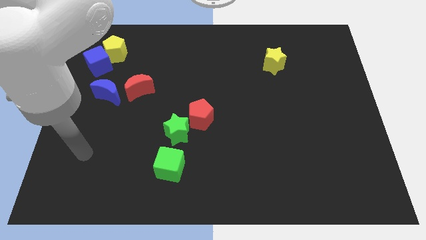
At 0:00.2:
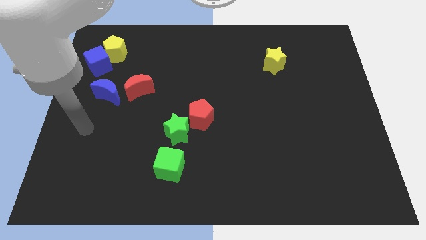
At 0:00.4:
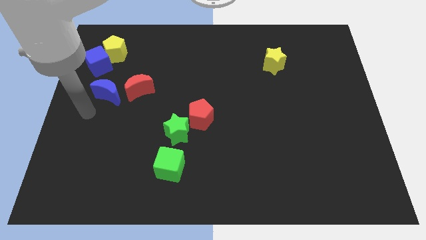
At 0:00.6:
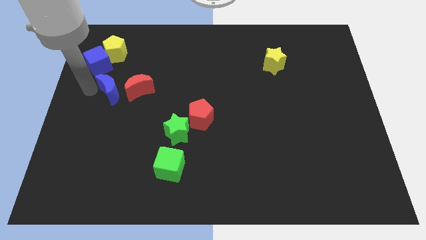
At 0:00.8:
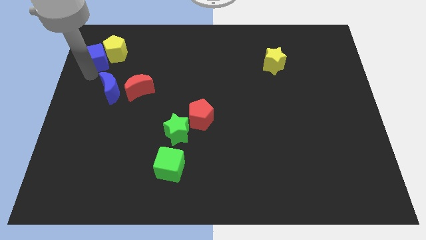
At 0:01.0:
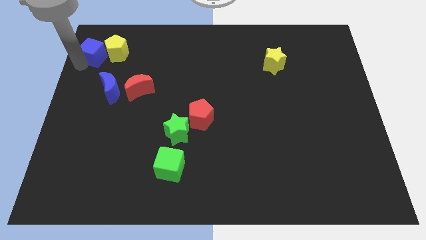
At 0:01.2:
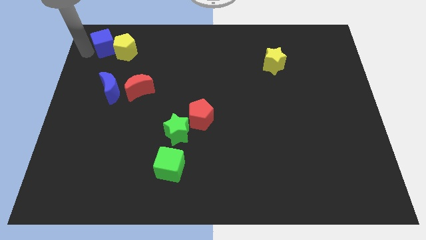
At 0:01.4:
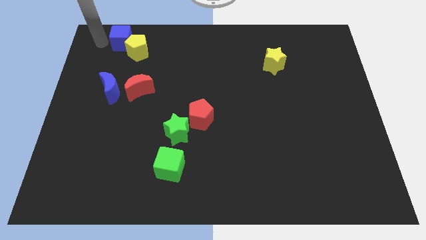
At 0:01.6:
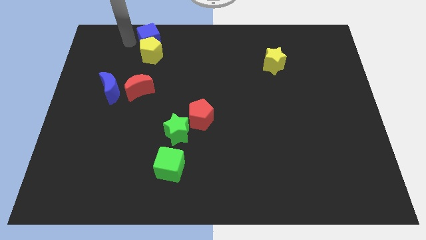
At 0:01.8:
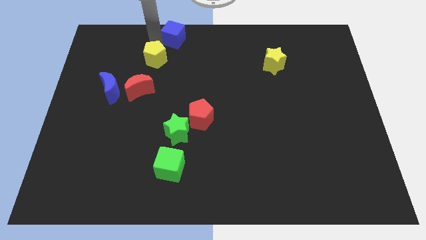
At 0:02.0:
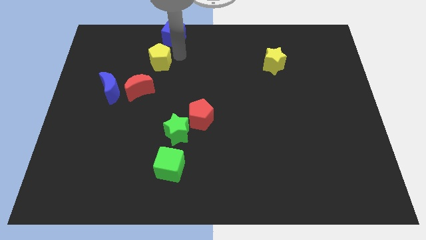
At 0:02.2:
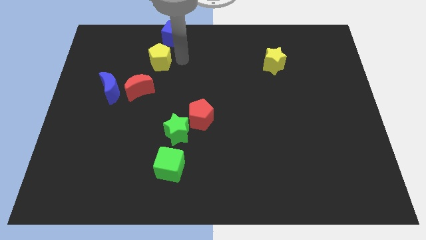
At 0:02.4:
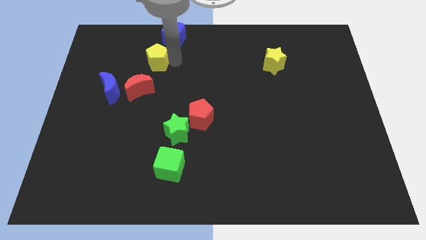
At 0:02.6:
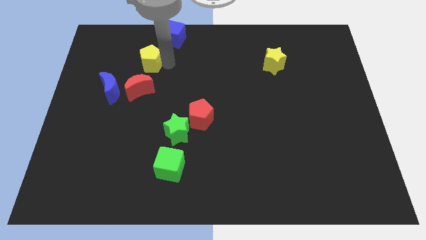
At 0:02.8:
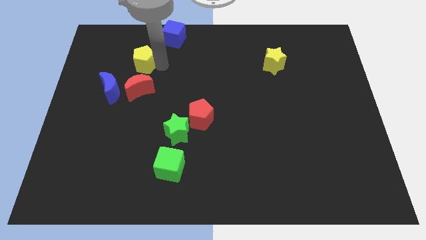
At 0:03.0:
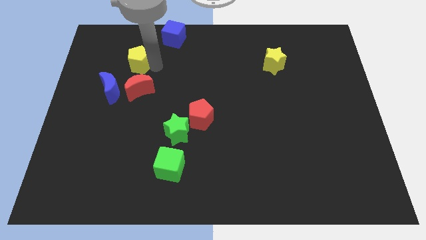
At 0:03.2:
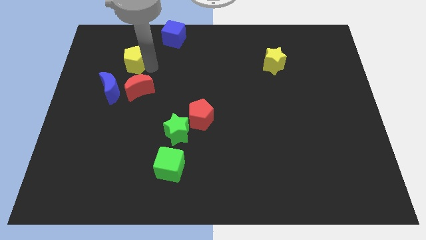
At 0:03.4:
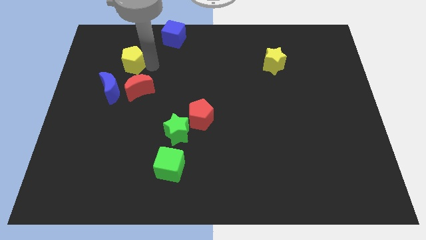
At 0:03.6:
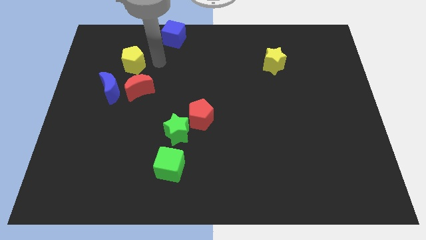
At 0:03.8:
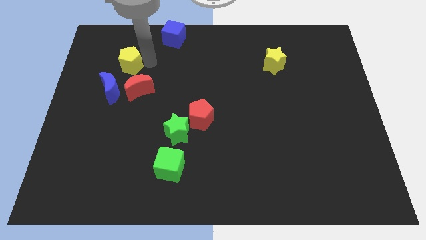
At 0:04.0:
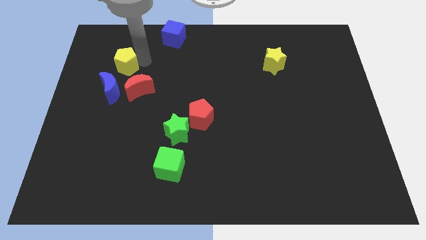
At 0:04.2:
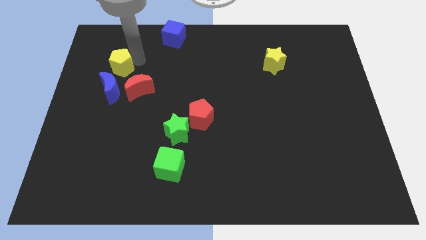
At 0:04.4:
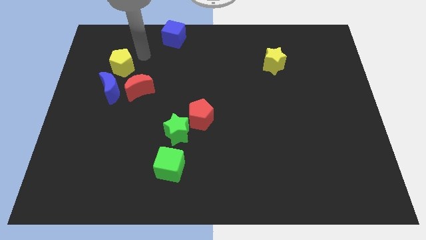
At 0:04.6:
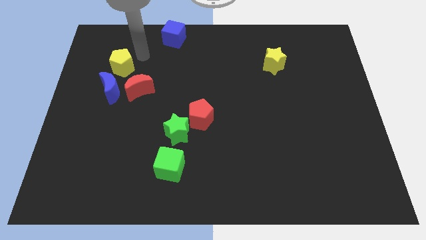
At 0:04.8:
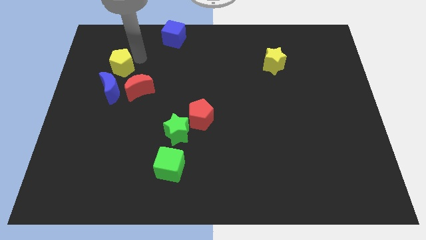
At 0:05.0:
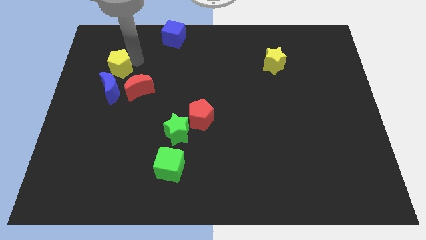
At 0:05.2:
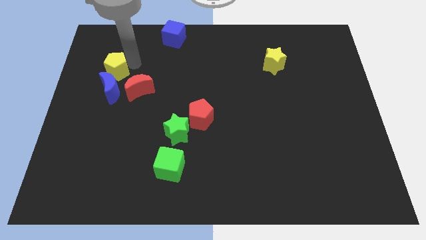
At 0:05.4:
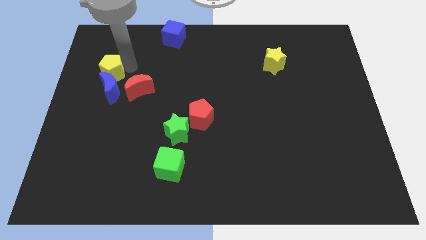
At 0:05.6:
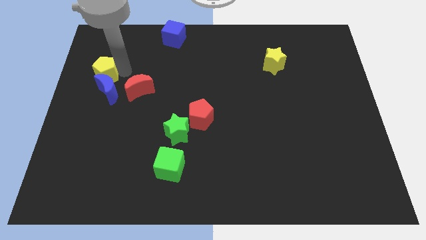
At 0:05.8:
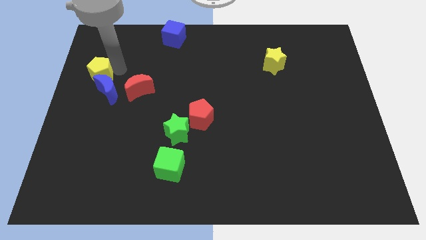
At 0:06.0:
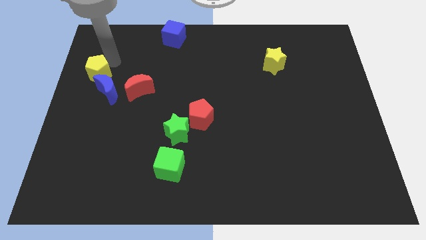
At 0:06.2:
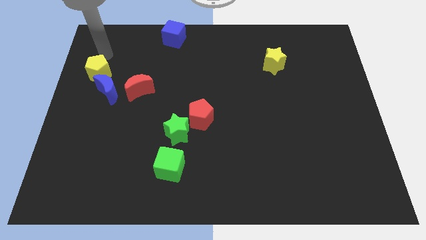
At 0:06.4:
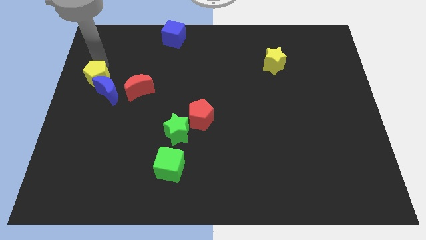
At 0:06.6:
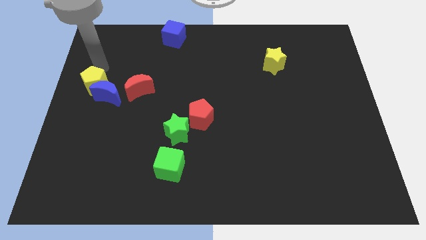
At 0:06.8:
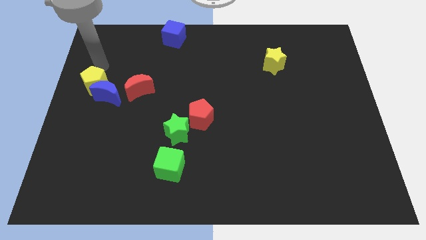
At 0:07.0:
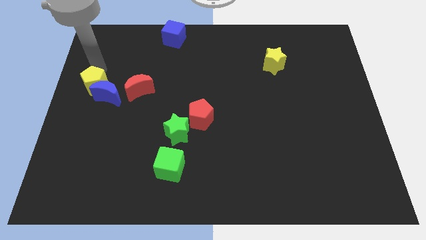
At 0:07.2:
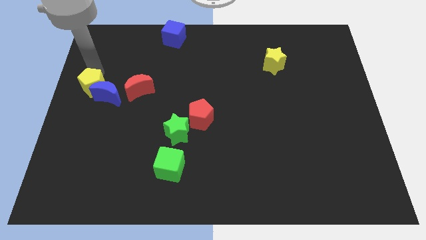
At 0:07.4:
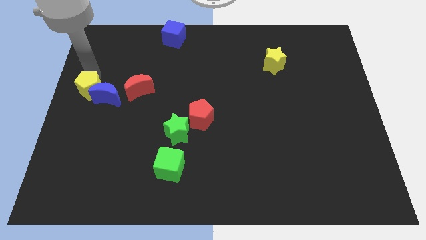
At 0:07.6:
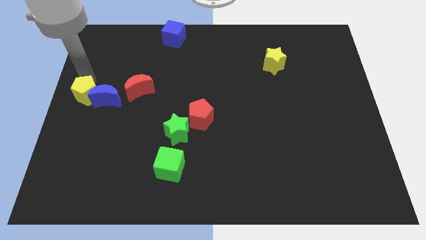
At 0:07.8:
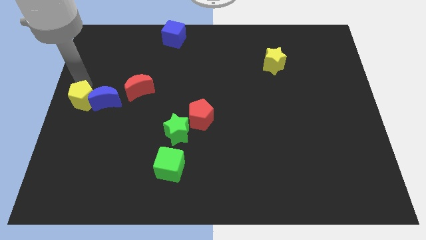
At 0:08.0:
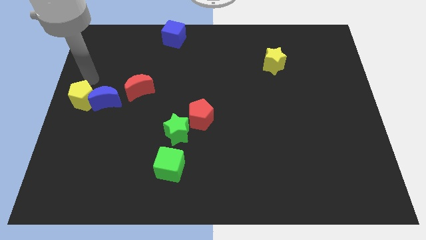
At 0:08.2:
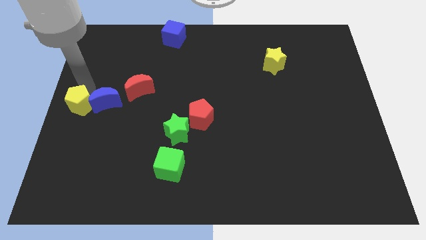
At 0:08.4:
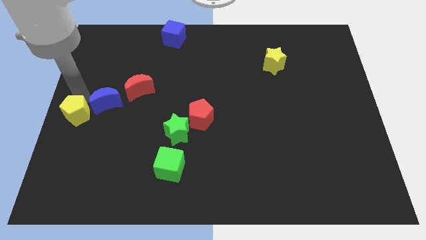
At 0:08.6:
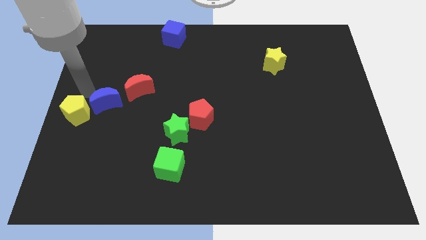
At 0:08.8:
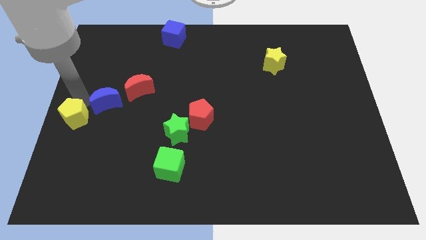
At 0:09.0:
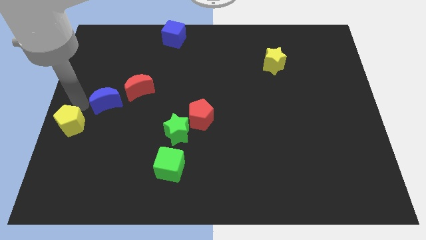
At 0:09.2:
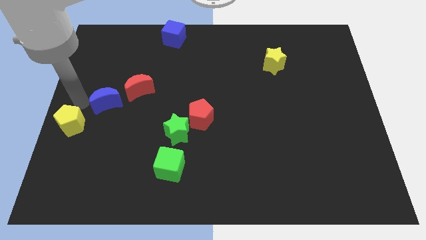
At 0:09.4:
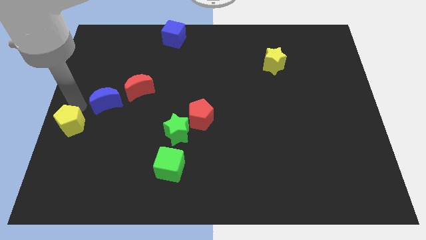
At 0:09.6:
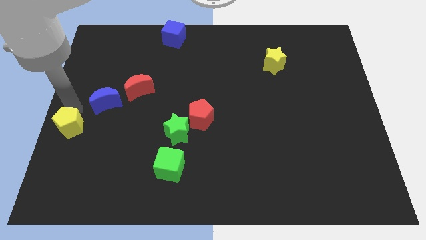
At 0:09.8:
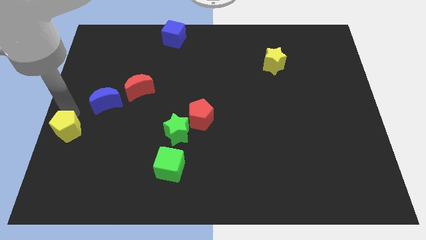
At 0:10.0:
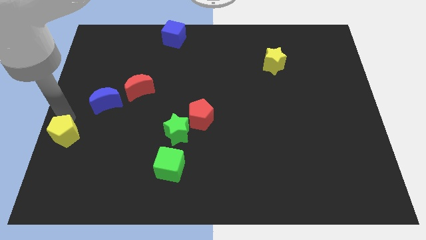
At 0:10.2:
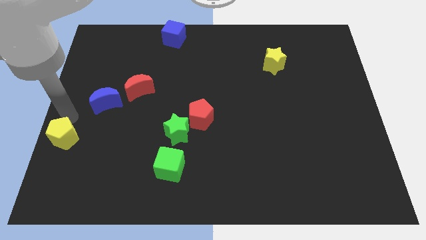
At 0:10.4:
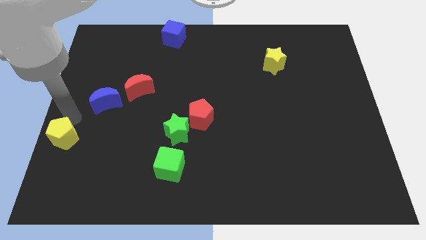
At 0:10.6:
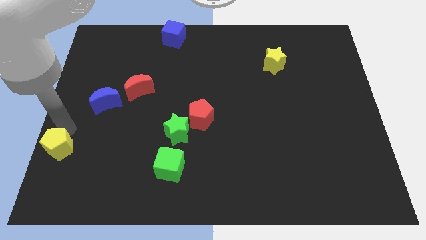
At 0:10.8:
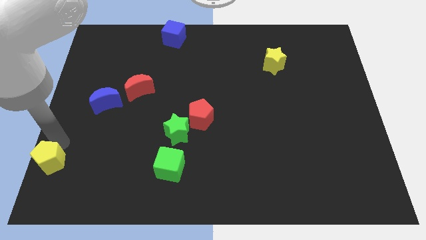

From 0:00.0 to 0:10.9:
put the yellow pentagon to the lower left corner
